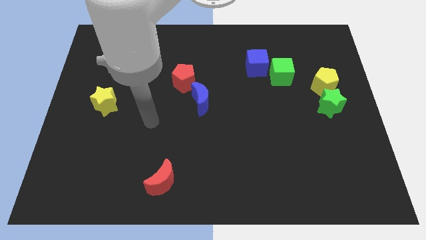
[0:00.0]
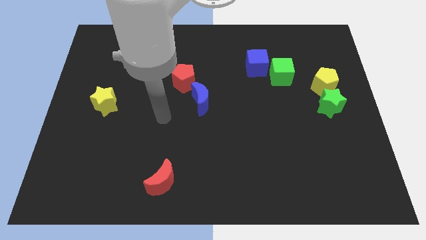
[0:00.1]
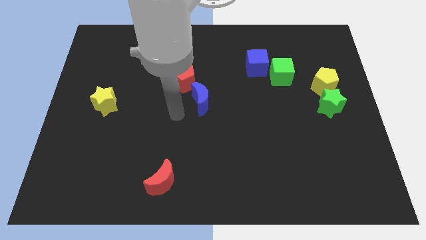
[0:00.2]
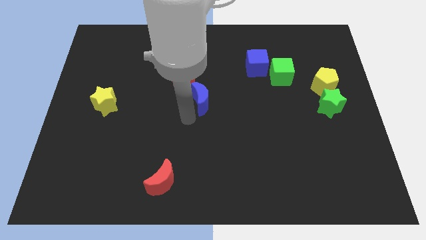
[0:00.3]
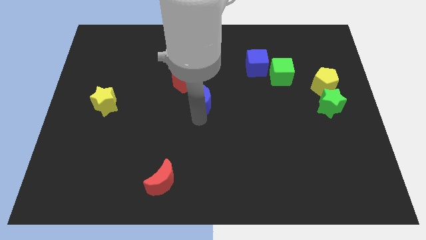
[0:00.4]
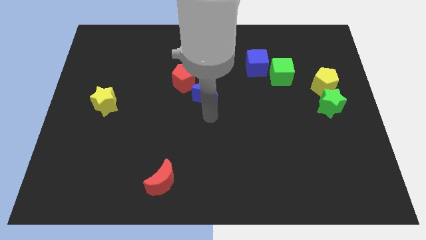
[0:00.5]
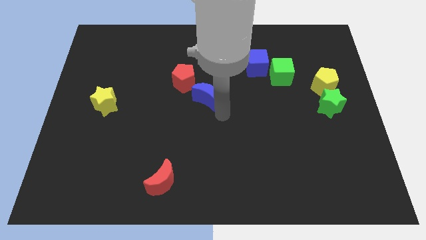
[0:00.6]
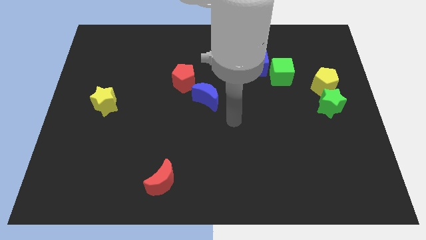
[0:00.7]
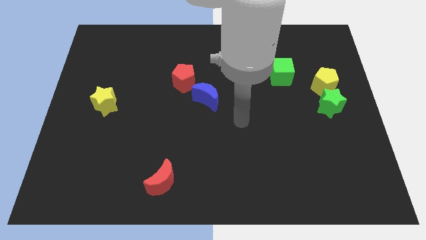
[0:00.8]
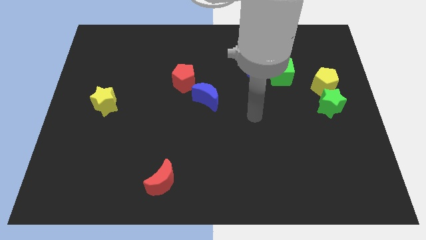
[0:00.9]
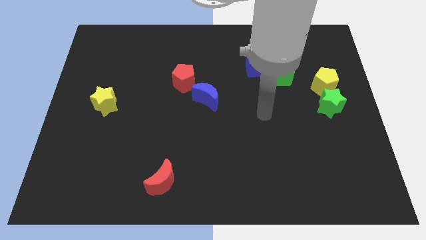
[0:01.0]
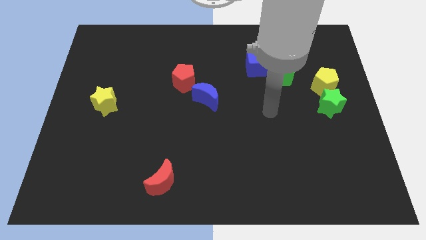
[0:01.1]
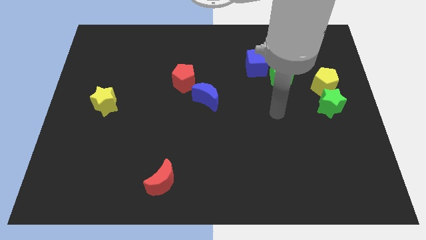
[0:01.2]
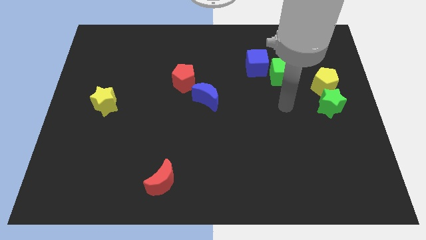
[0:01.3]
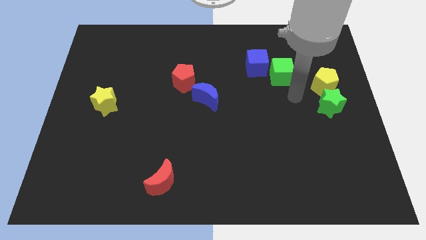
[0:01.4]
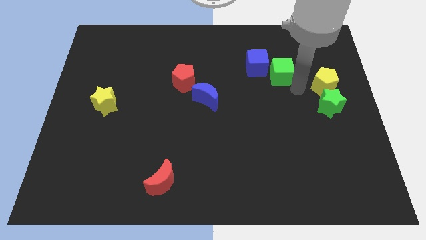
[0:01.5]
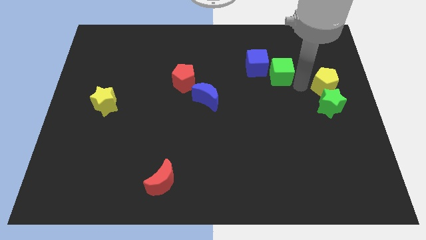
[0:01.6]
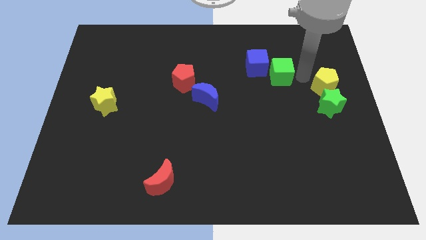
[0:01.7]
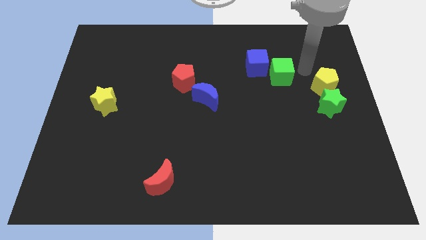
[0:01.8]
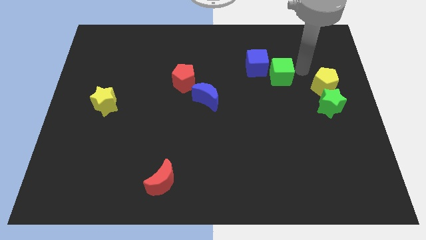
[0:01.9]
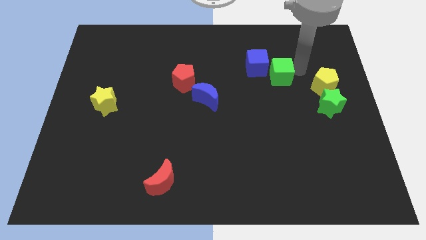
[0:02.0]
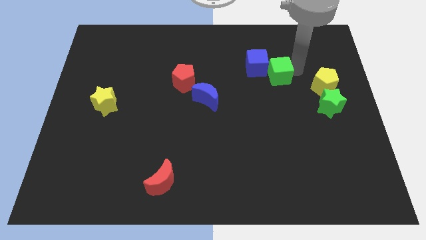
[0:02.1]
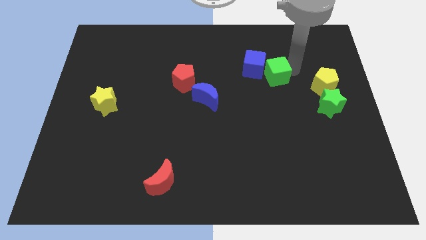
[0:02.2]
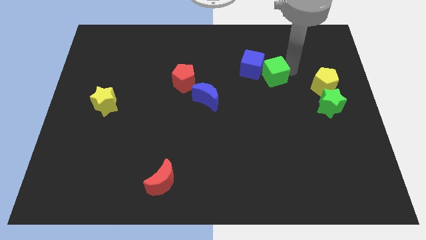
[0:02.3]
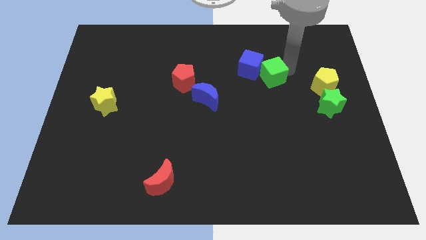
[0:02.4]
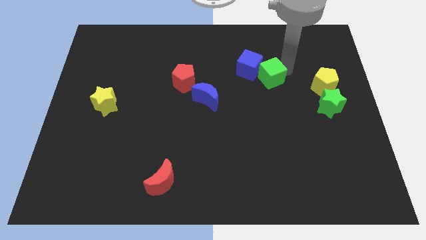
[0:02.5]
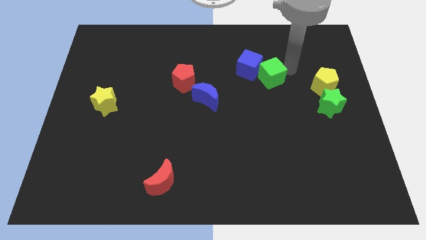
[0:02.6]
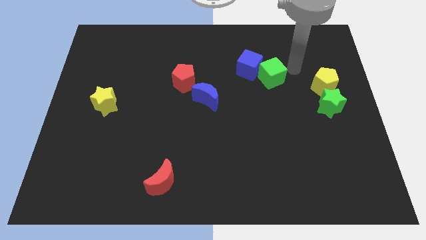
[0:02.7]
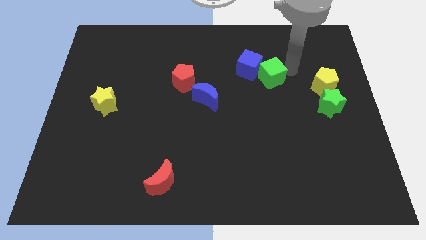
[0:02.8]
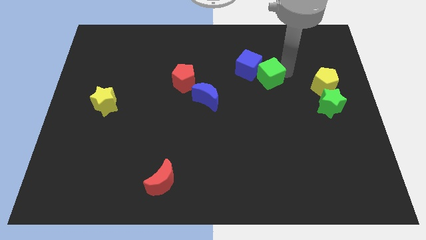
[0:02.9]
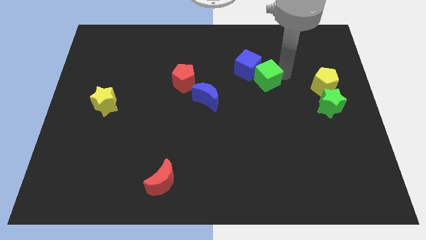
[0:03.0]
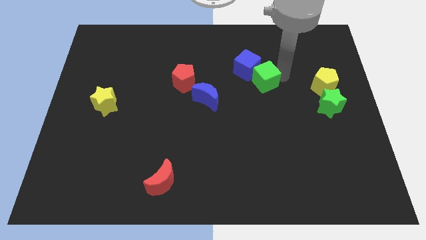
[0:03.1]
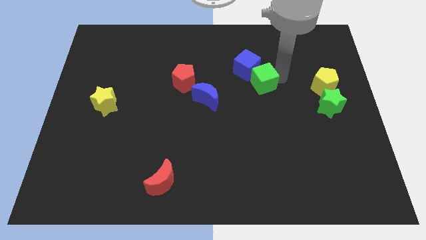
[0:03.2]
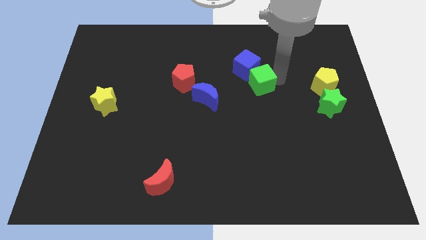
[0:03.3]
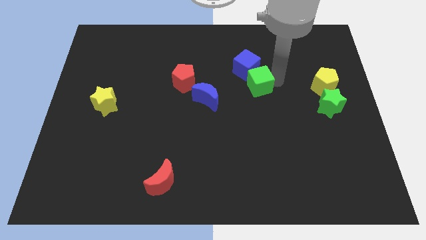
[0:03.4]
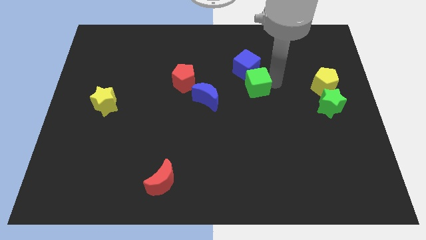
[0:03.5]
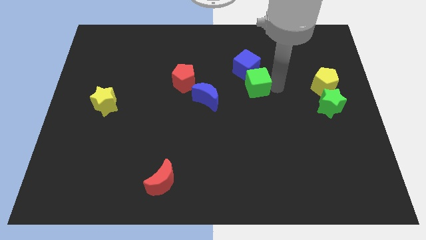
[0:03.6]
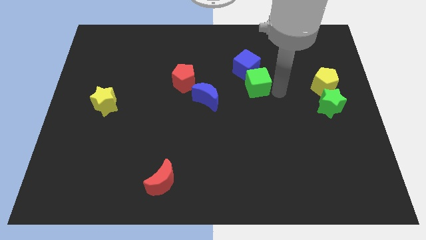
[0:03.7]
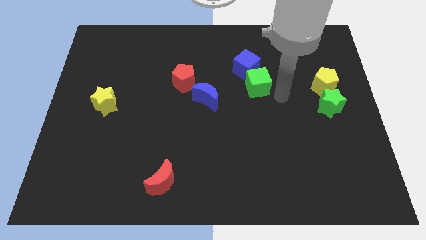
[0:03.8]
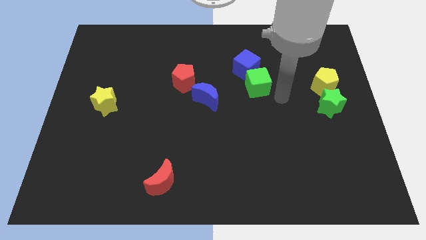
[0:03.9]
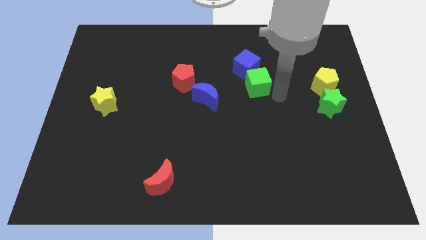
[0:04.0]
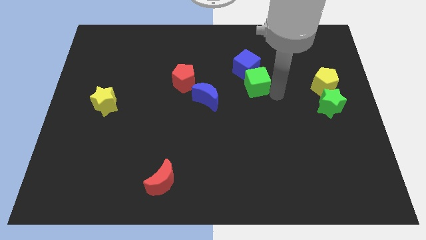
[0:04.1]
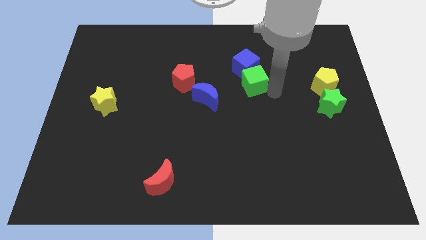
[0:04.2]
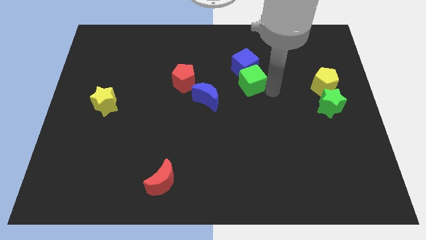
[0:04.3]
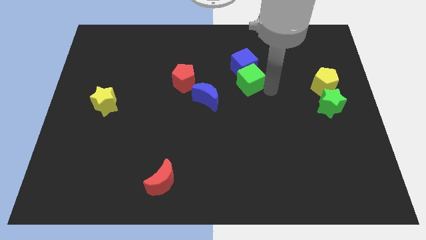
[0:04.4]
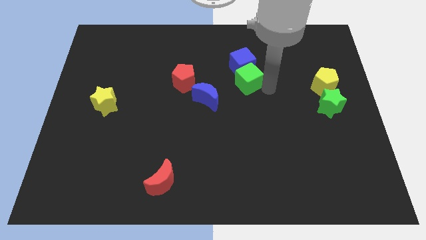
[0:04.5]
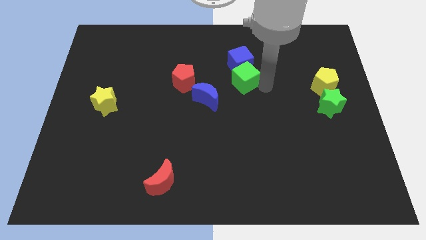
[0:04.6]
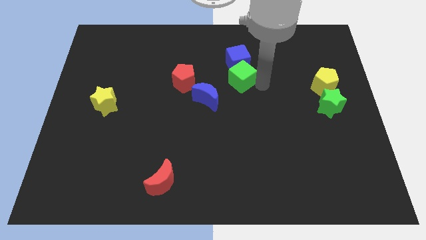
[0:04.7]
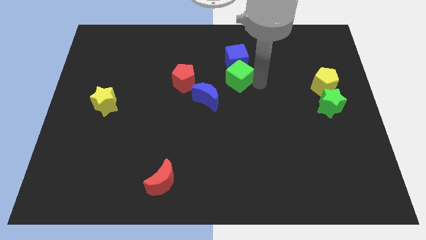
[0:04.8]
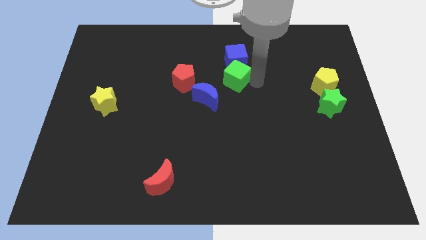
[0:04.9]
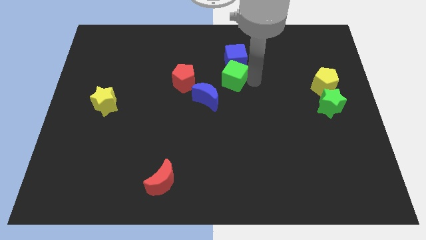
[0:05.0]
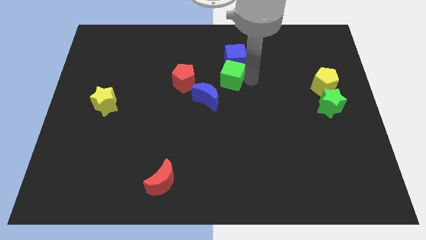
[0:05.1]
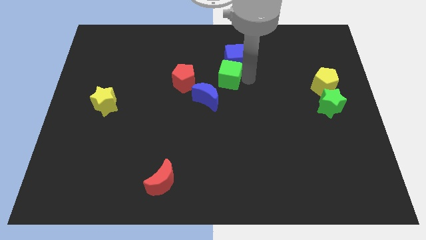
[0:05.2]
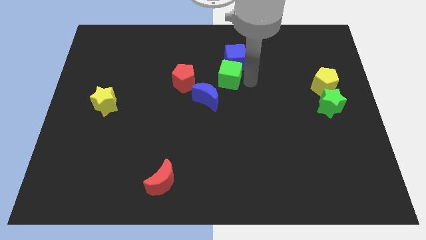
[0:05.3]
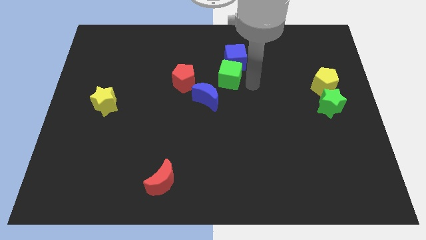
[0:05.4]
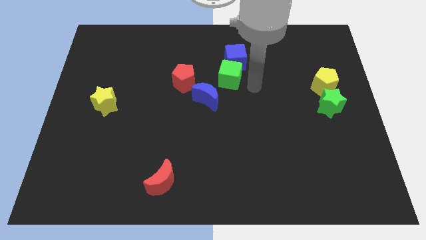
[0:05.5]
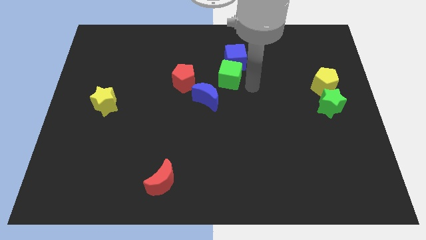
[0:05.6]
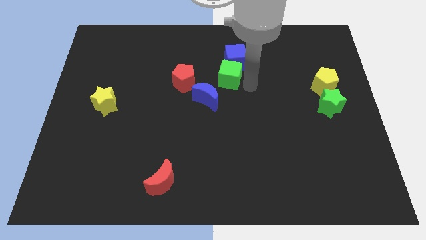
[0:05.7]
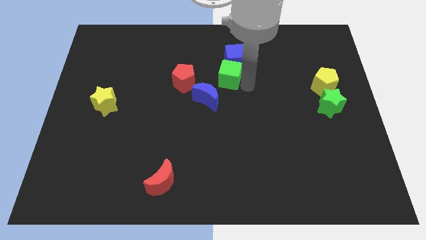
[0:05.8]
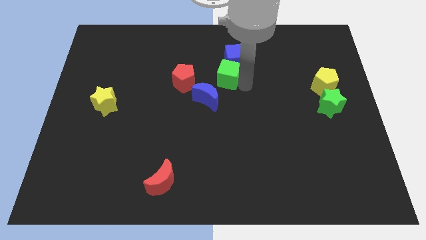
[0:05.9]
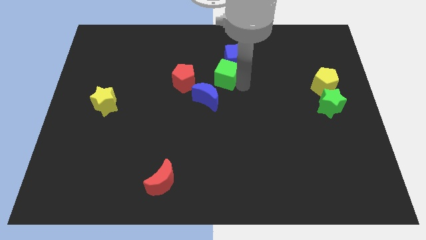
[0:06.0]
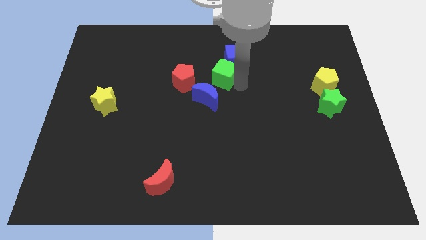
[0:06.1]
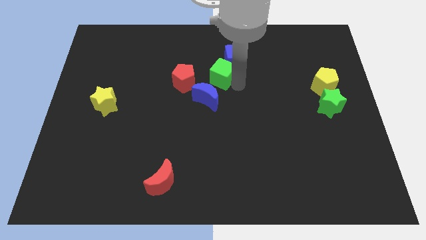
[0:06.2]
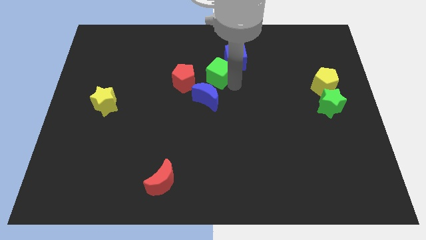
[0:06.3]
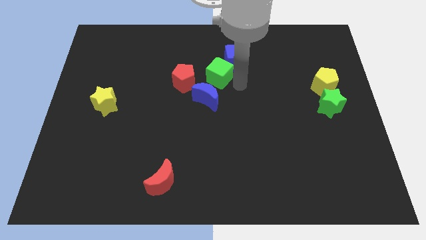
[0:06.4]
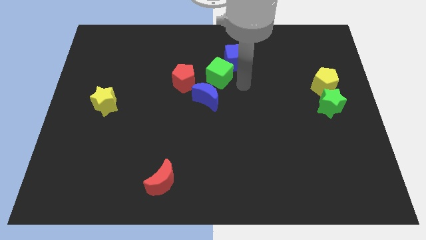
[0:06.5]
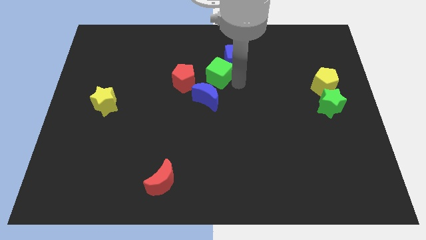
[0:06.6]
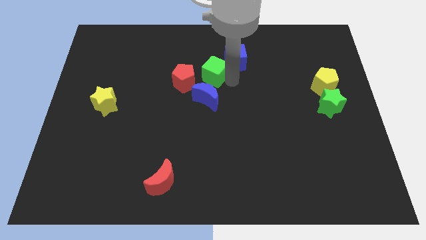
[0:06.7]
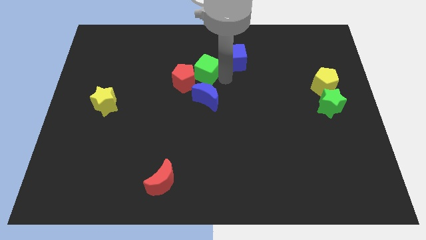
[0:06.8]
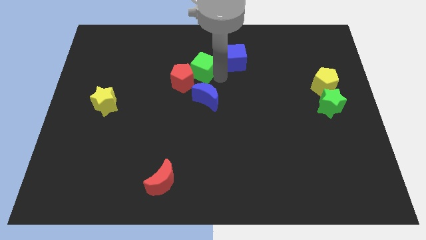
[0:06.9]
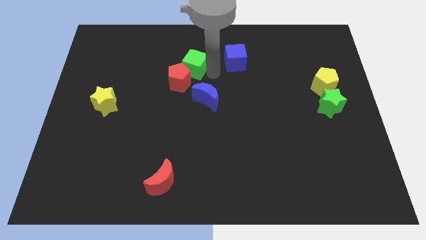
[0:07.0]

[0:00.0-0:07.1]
slide the green cube to the left

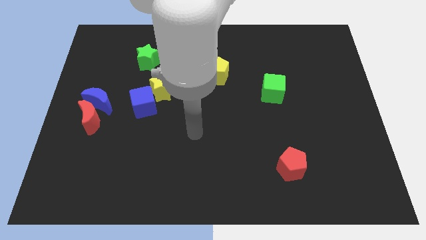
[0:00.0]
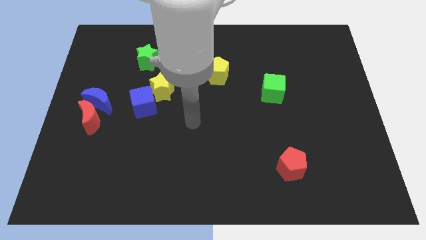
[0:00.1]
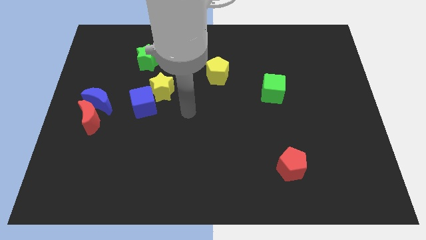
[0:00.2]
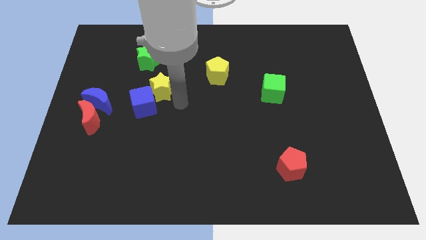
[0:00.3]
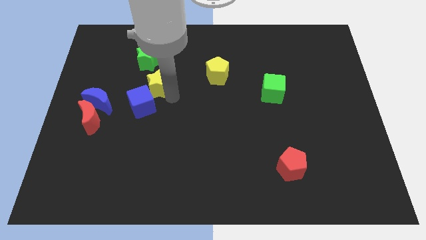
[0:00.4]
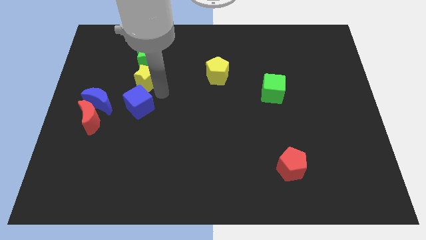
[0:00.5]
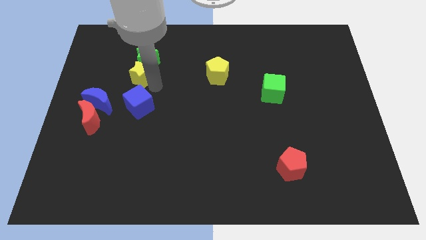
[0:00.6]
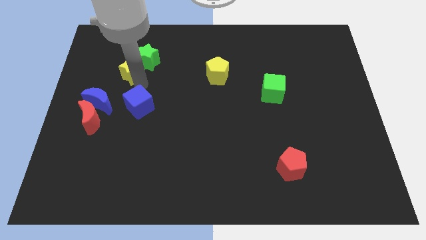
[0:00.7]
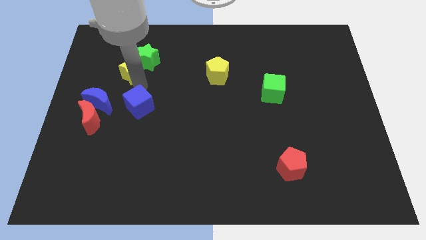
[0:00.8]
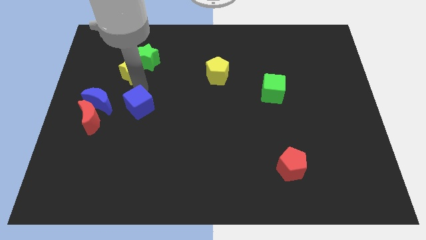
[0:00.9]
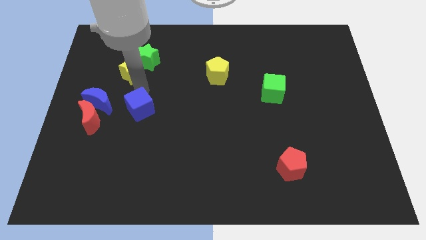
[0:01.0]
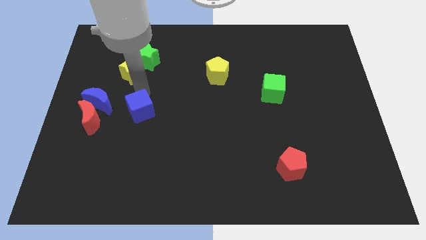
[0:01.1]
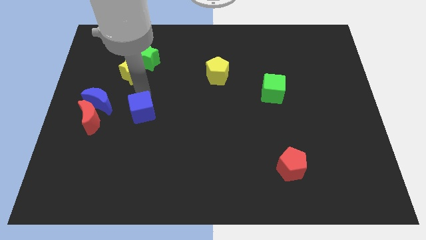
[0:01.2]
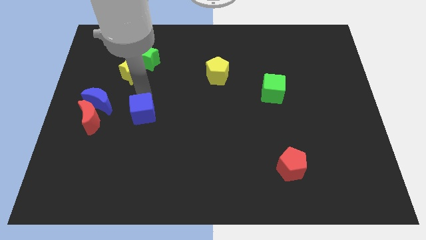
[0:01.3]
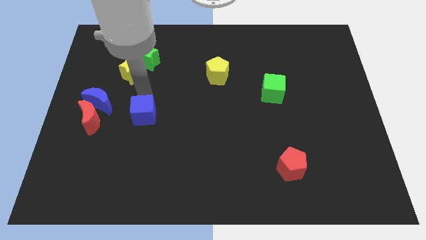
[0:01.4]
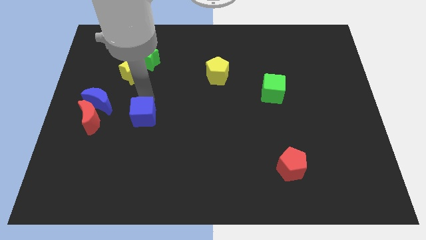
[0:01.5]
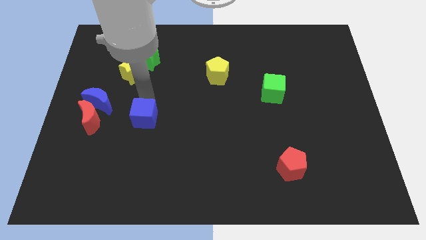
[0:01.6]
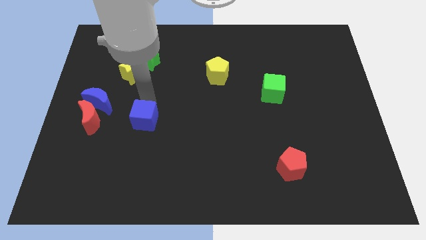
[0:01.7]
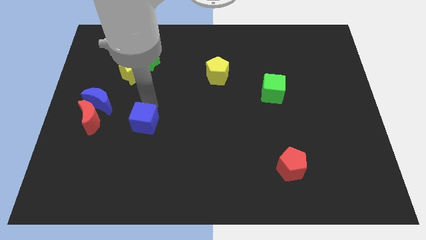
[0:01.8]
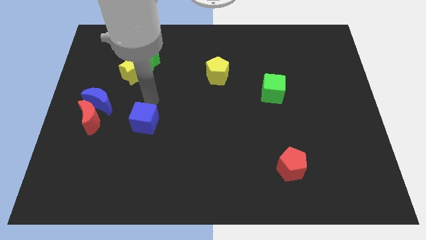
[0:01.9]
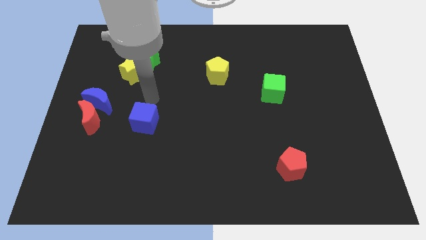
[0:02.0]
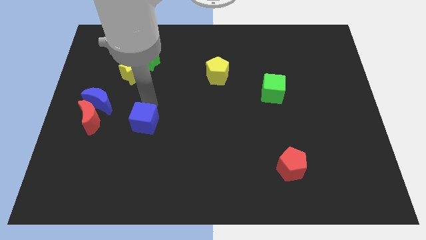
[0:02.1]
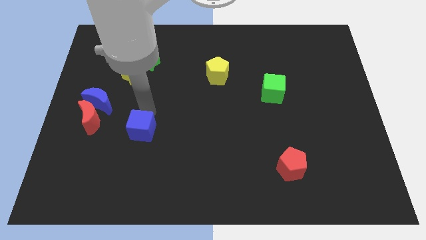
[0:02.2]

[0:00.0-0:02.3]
slightly push the blue cube down
